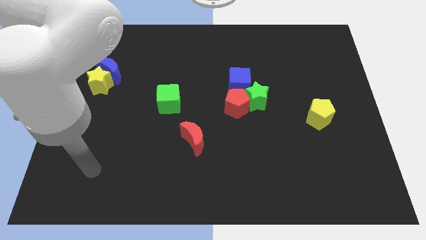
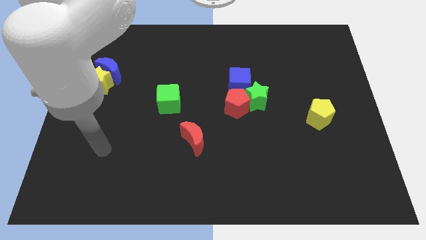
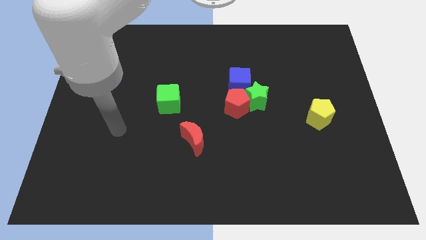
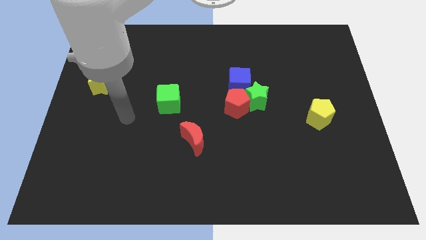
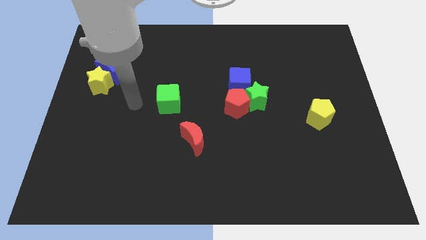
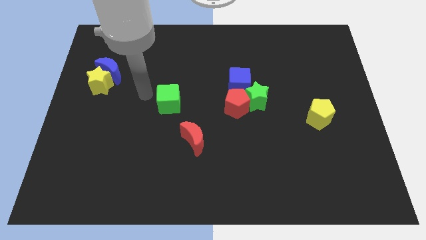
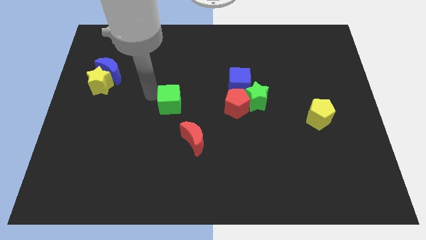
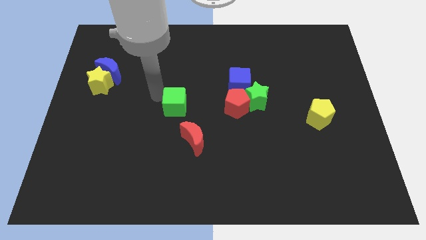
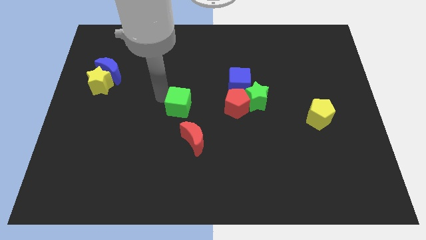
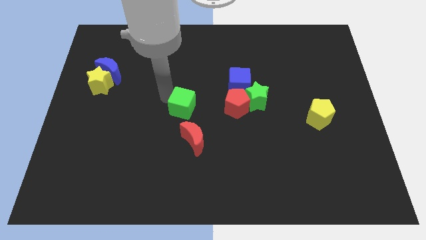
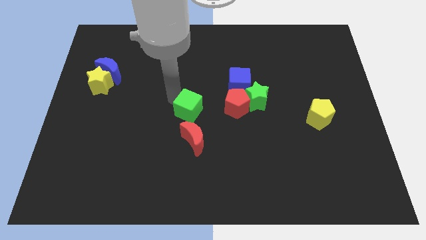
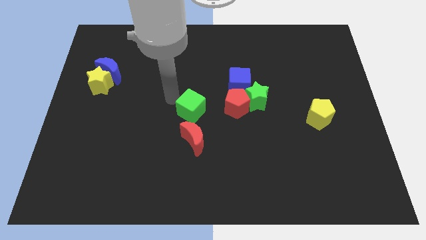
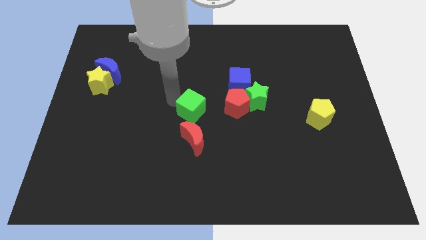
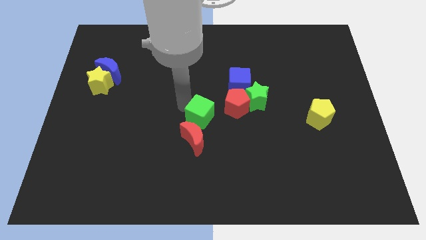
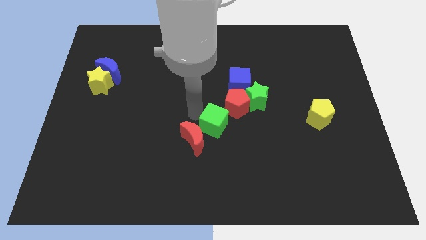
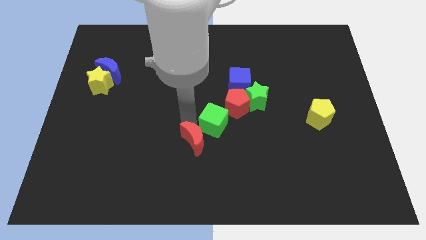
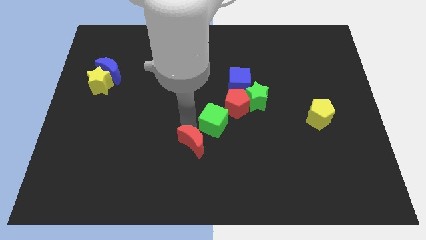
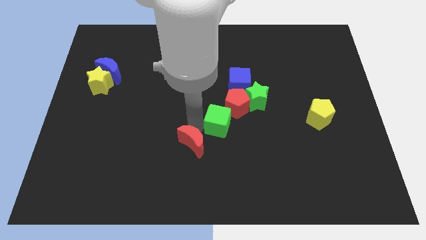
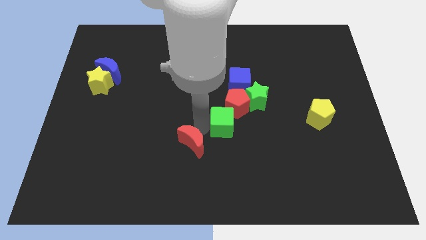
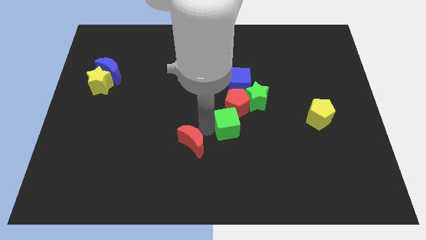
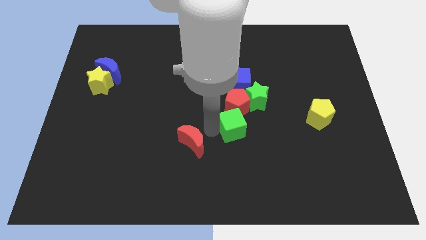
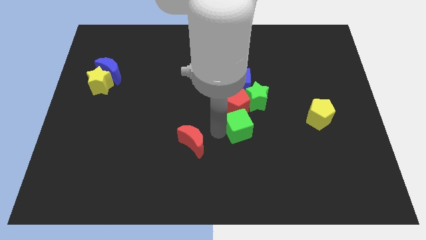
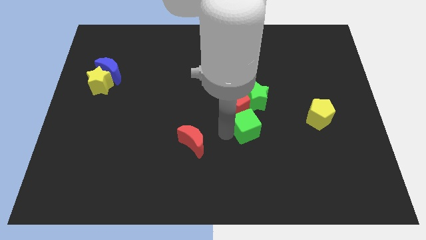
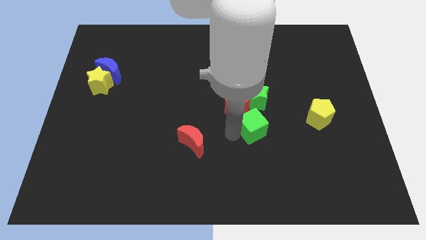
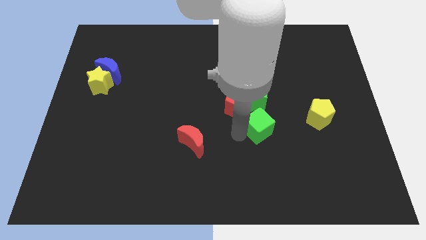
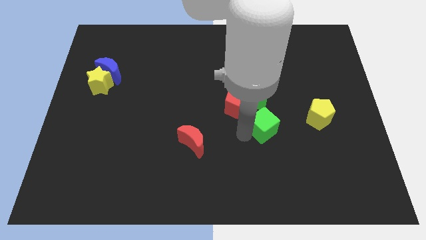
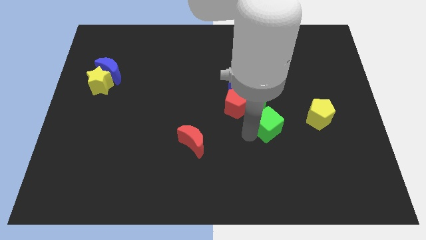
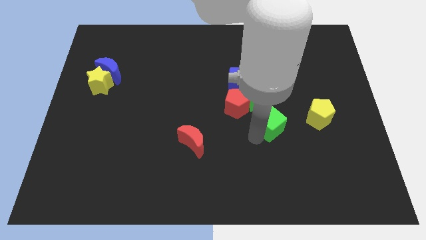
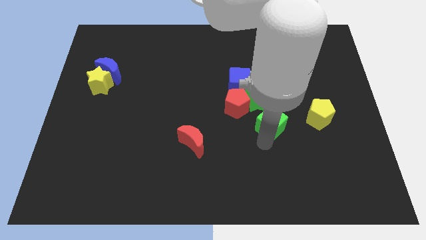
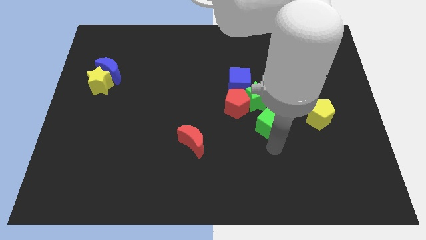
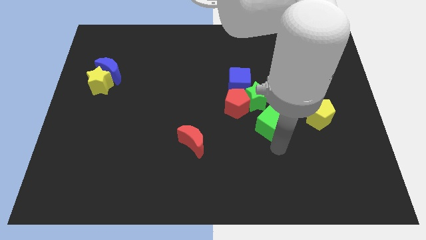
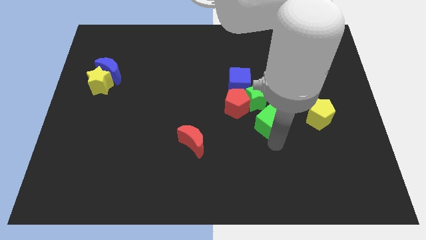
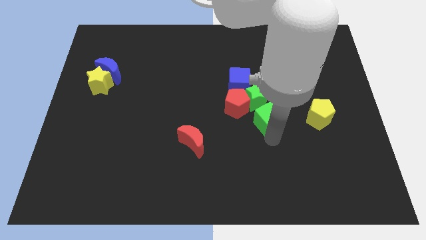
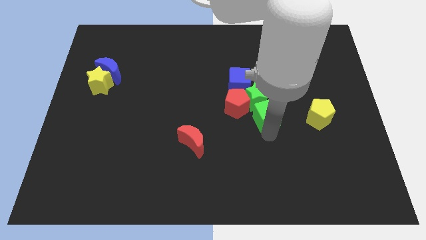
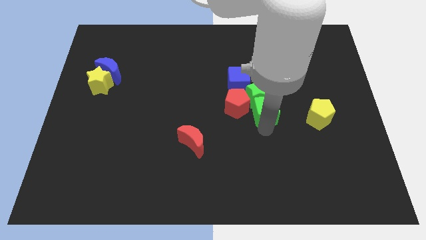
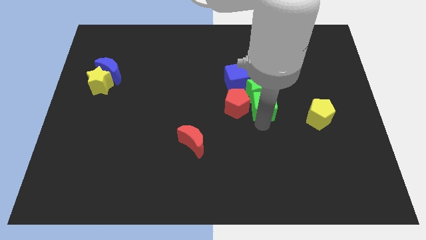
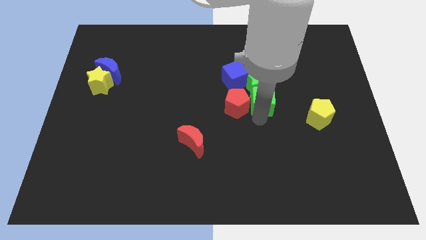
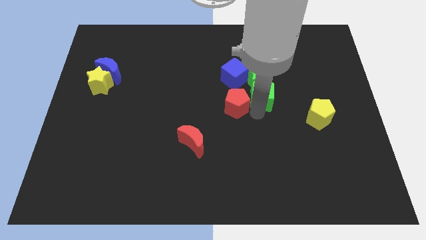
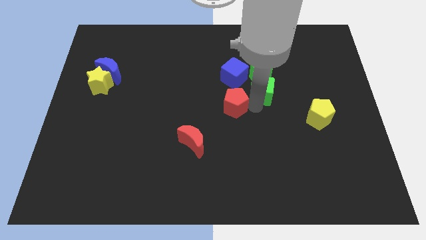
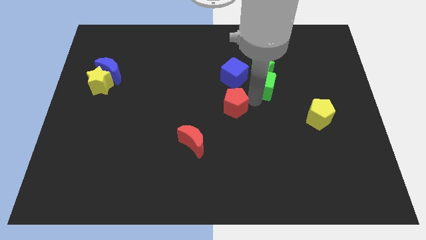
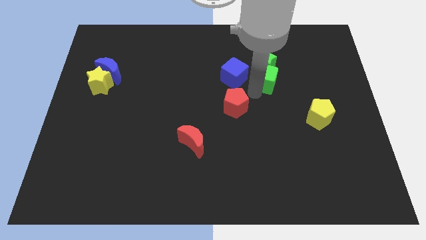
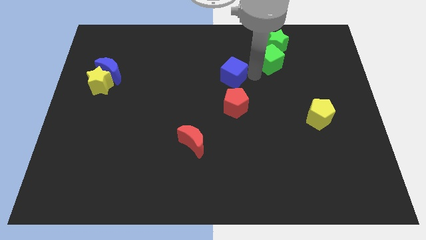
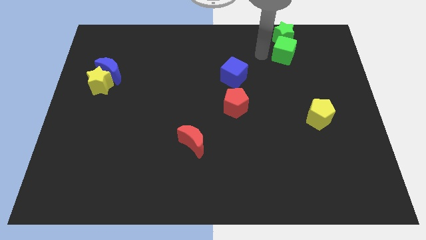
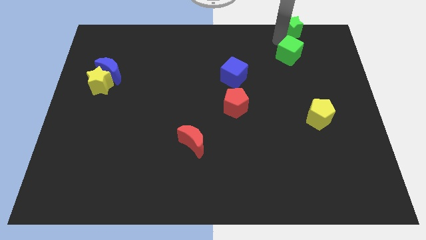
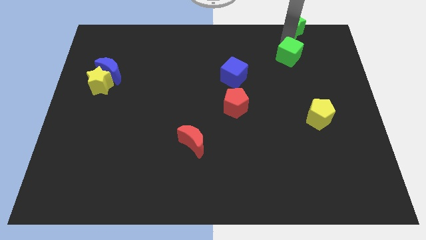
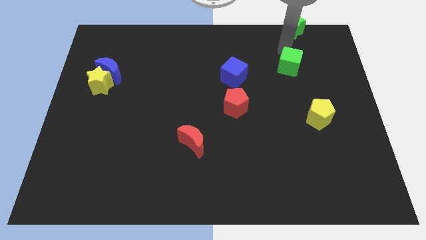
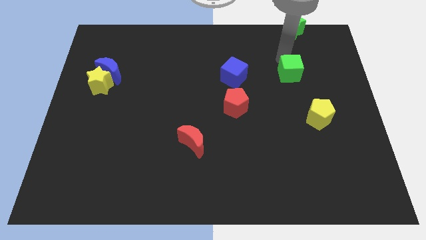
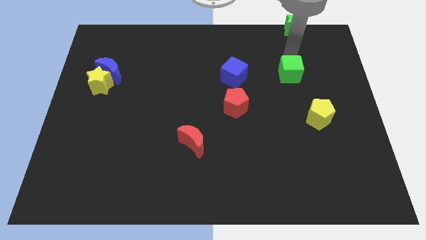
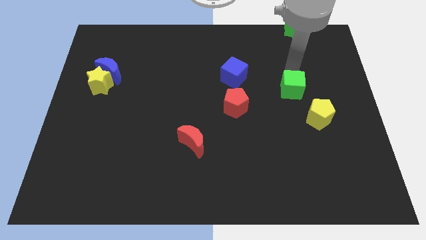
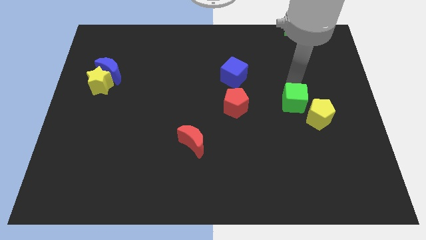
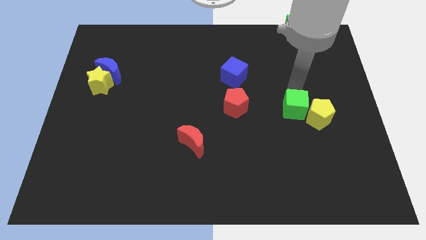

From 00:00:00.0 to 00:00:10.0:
push the green cube next to the yellow pentagon

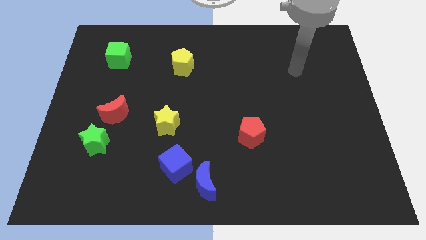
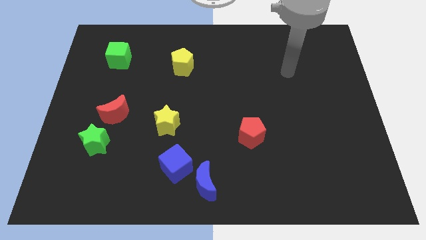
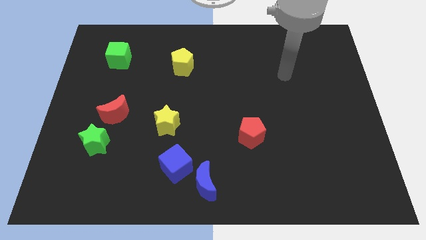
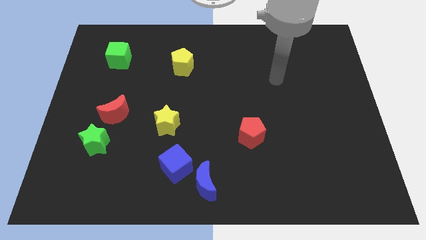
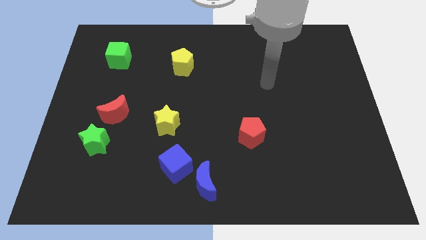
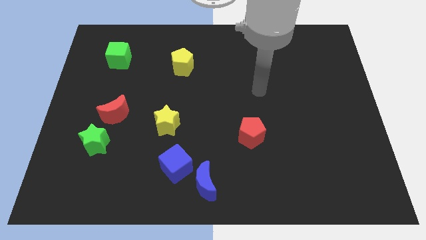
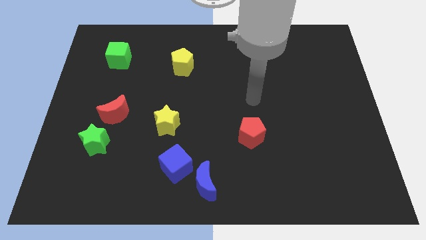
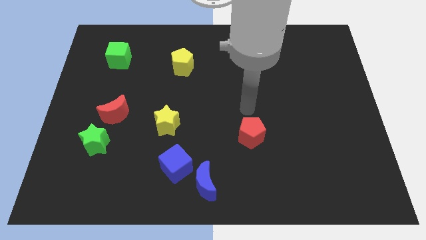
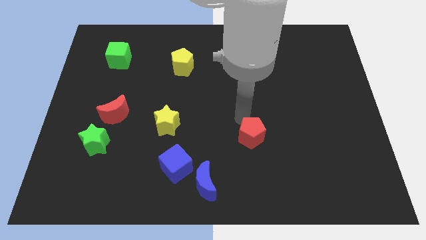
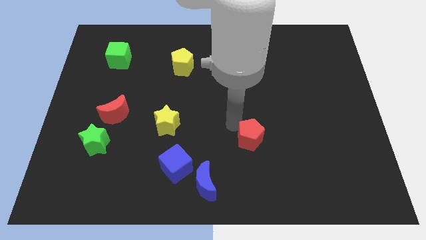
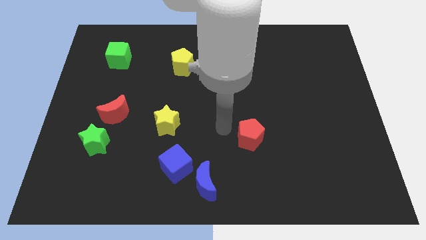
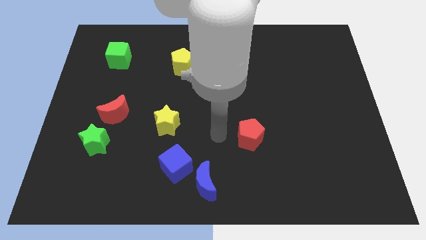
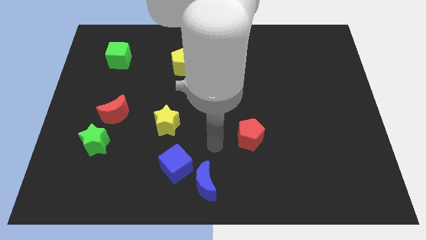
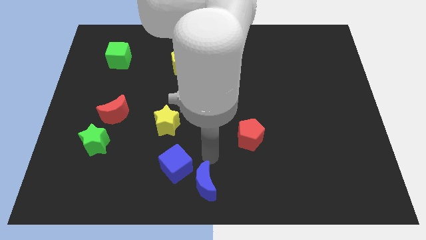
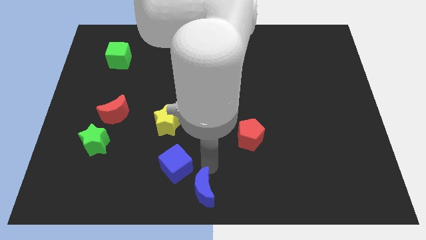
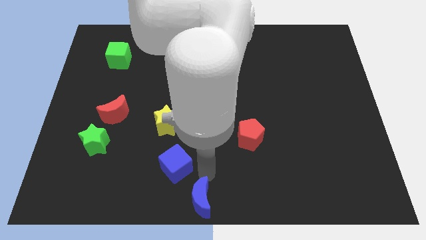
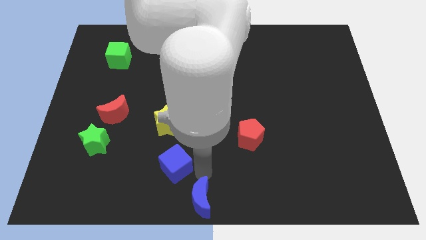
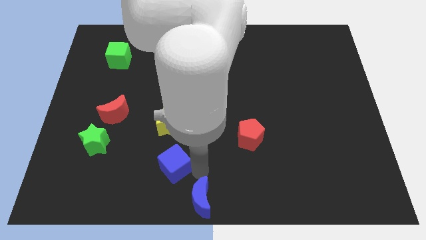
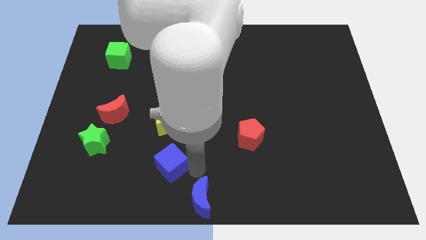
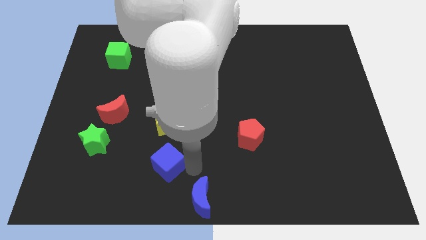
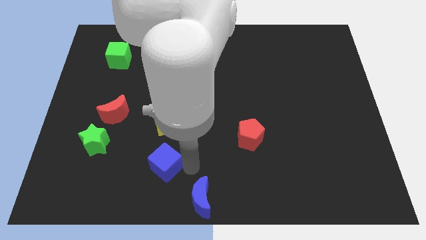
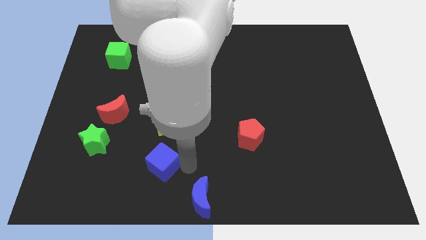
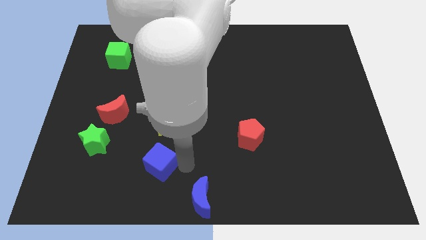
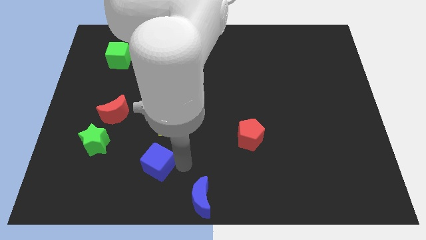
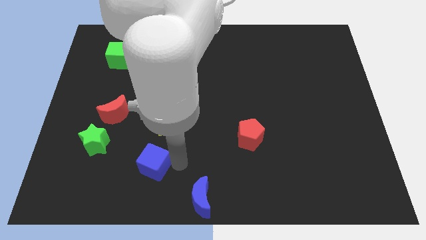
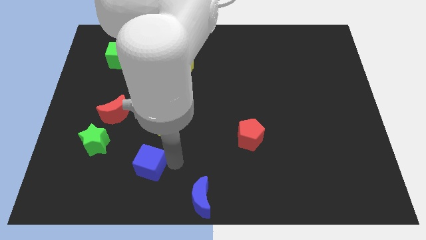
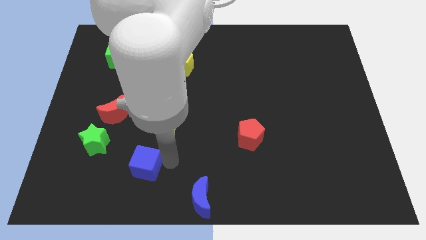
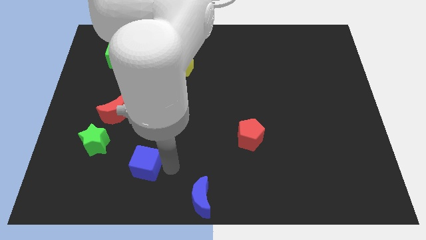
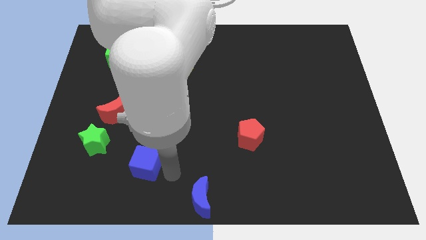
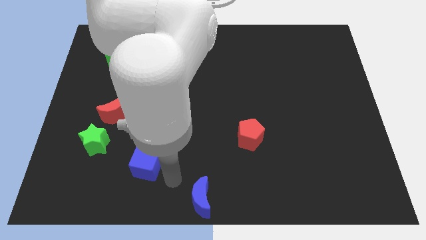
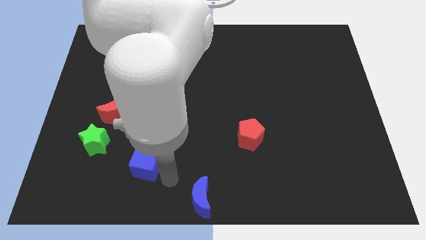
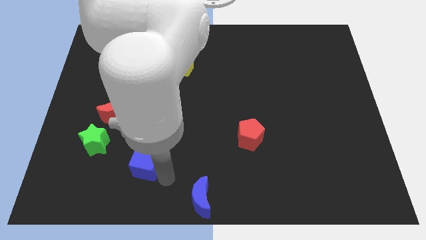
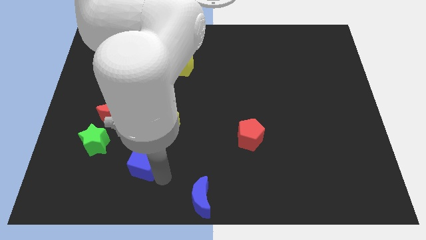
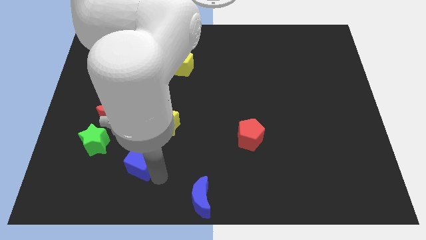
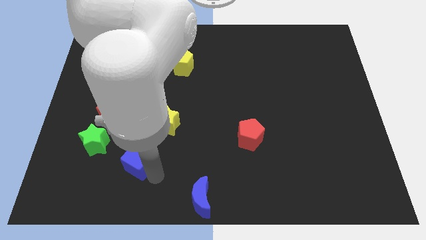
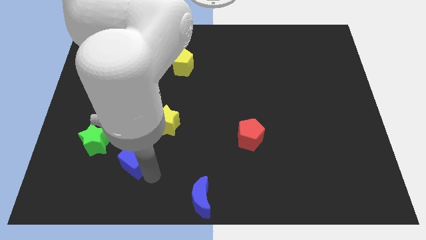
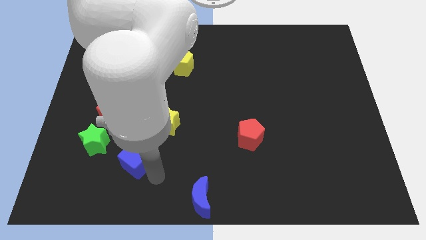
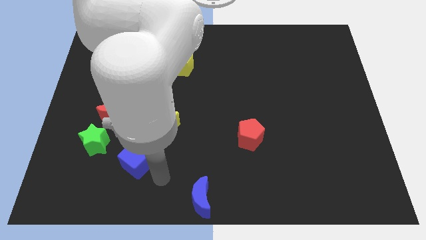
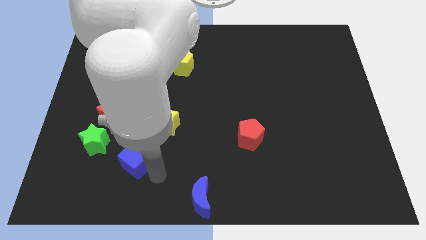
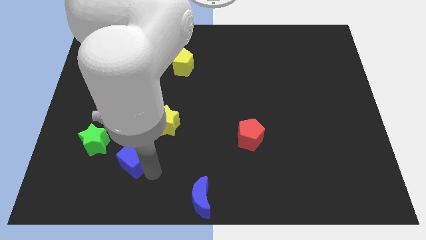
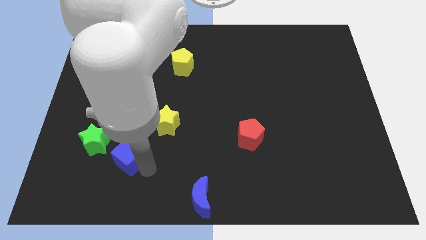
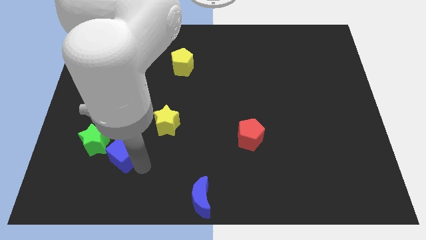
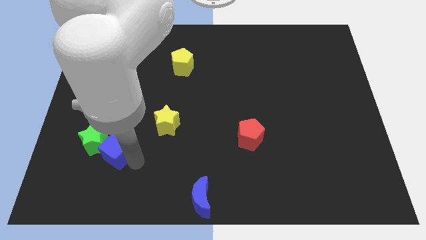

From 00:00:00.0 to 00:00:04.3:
push the blue cube next to the green star
